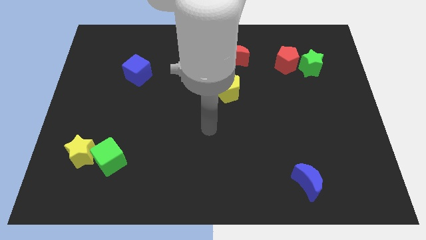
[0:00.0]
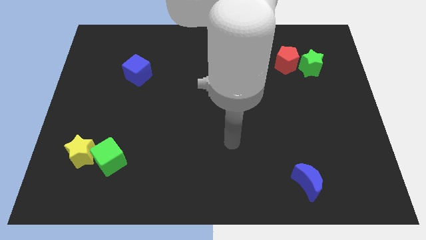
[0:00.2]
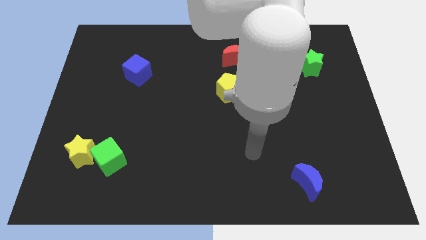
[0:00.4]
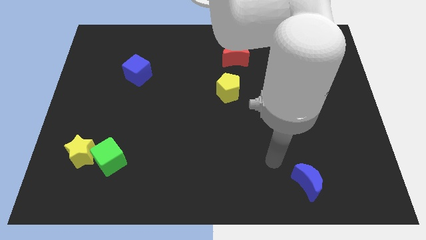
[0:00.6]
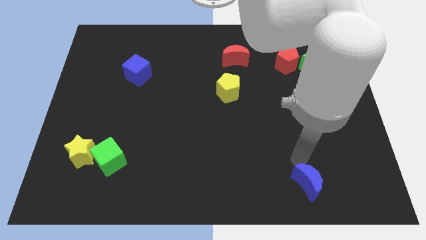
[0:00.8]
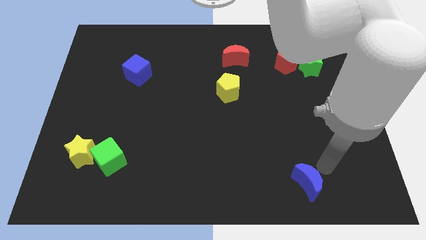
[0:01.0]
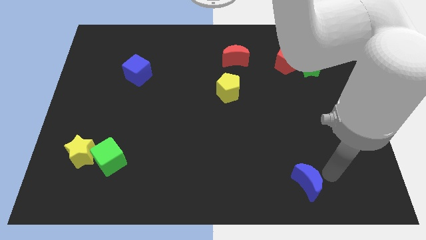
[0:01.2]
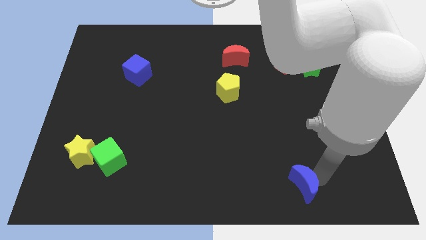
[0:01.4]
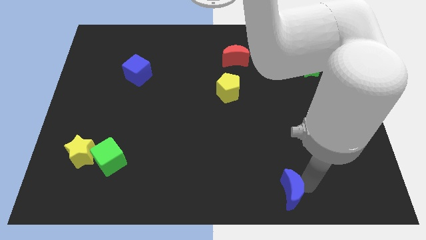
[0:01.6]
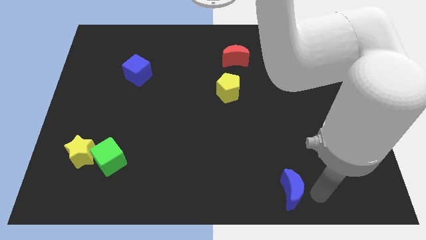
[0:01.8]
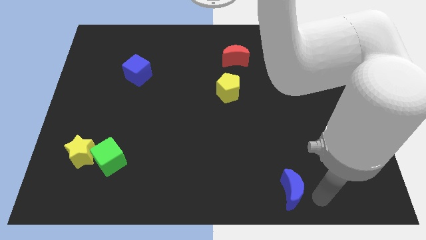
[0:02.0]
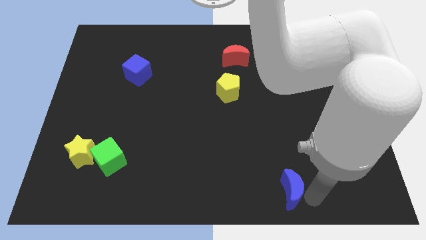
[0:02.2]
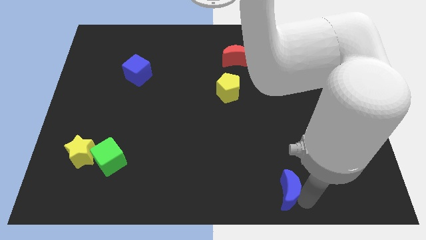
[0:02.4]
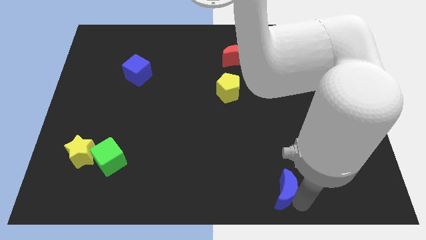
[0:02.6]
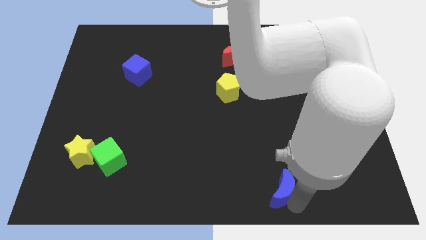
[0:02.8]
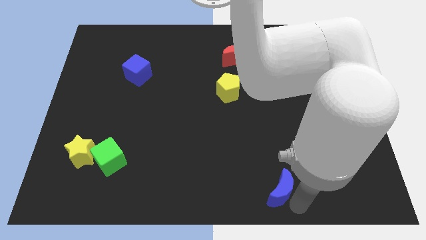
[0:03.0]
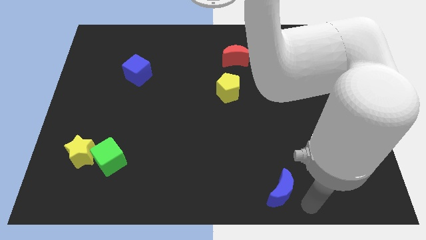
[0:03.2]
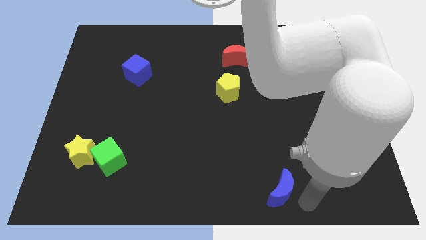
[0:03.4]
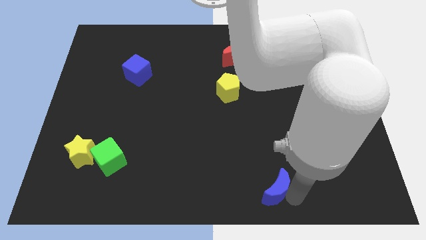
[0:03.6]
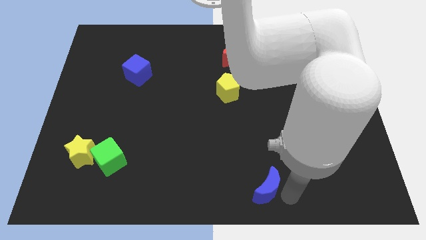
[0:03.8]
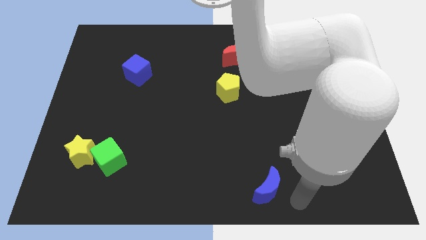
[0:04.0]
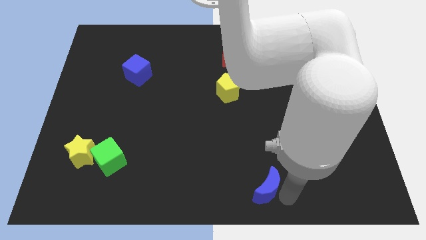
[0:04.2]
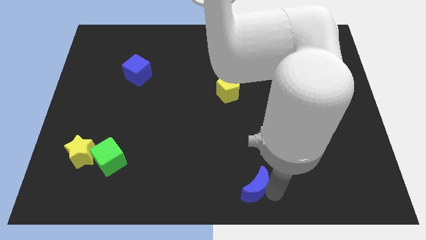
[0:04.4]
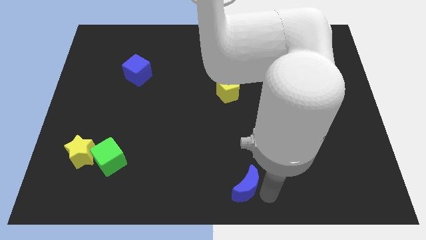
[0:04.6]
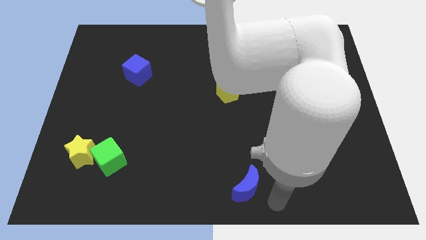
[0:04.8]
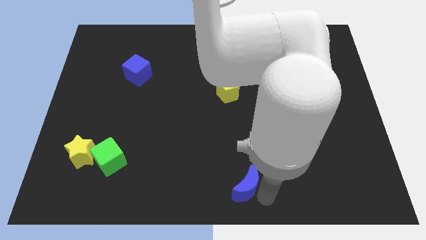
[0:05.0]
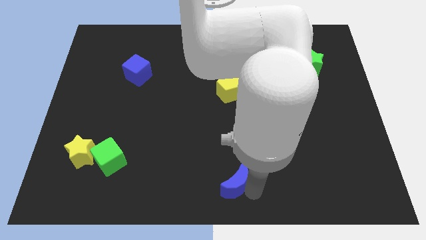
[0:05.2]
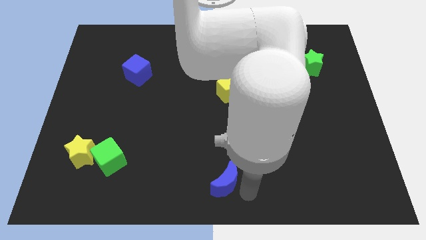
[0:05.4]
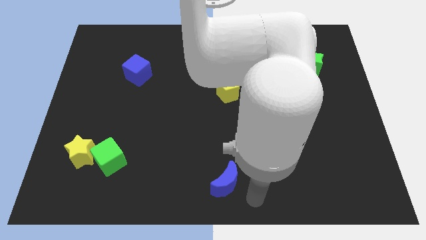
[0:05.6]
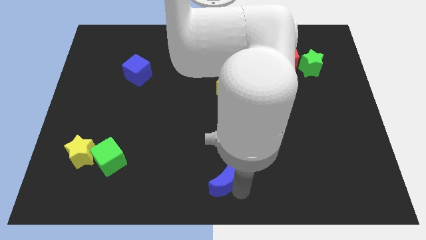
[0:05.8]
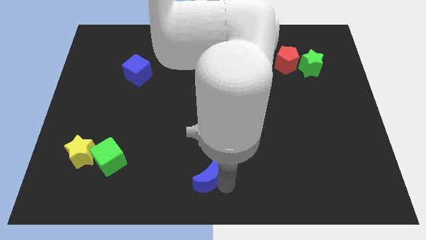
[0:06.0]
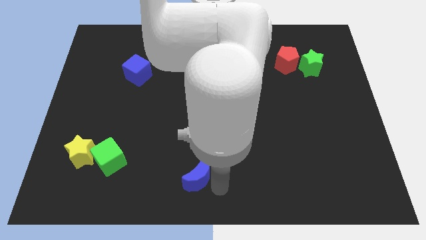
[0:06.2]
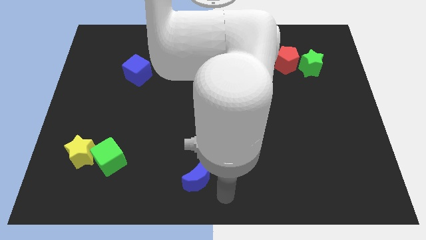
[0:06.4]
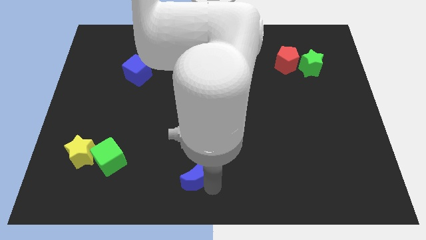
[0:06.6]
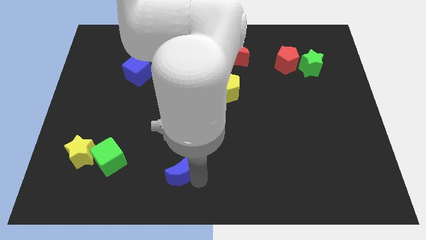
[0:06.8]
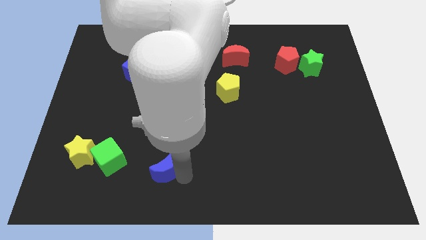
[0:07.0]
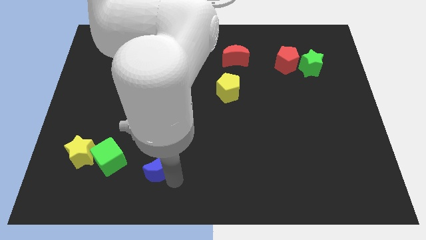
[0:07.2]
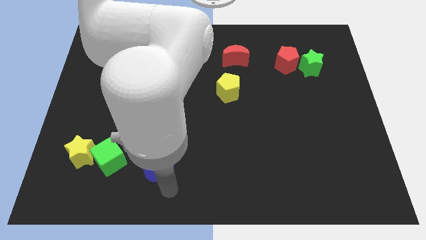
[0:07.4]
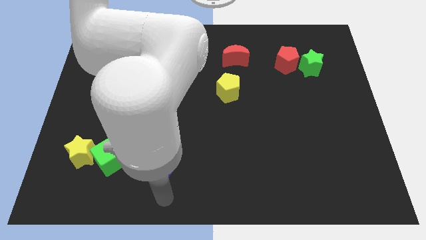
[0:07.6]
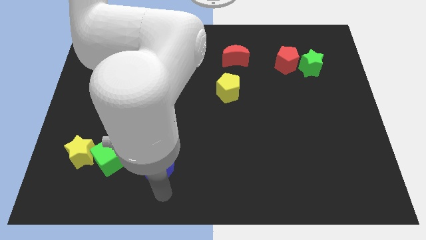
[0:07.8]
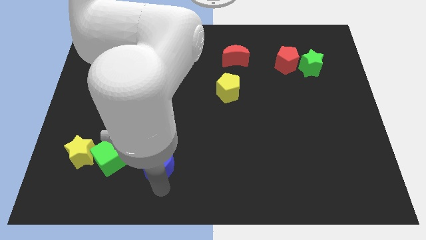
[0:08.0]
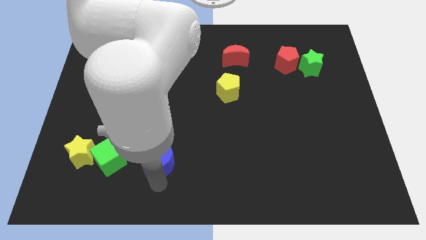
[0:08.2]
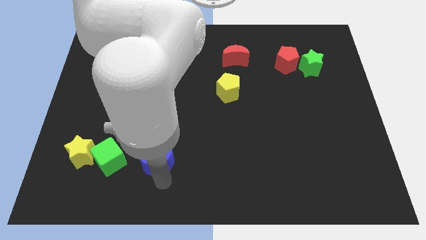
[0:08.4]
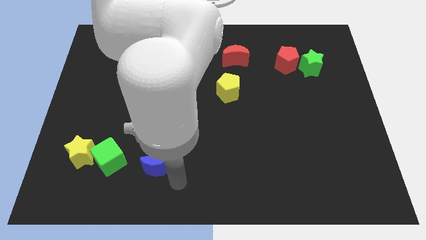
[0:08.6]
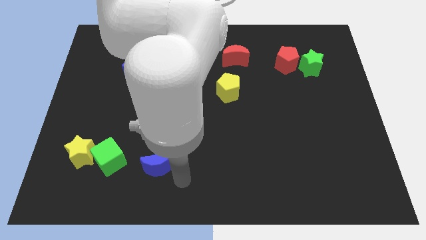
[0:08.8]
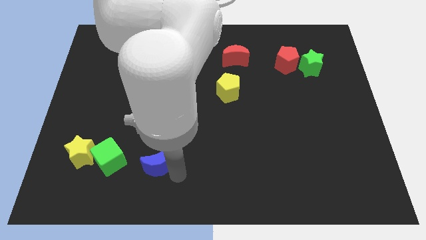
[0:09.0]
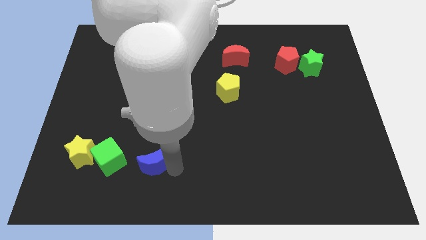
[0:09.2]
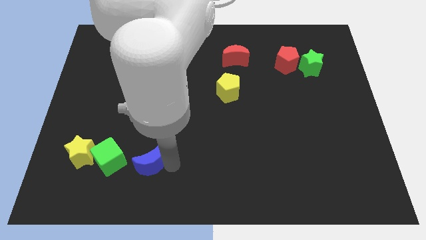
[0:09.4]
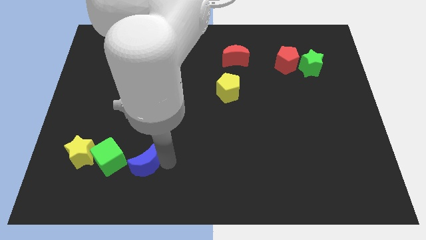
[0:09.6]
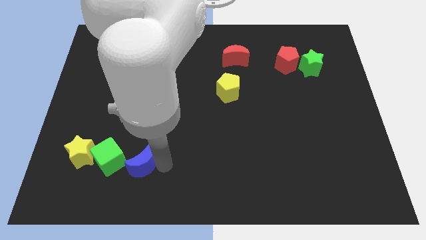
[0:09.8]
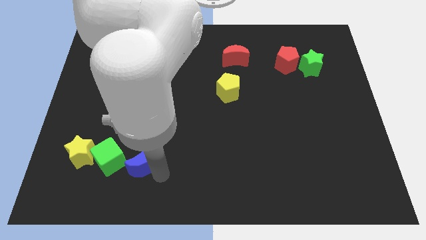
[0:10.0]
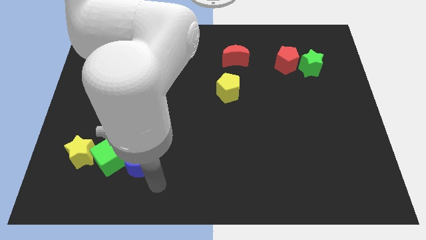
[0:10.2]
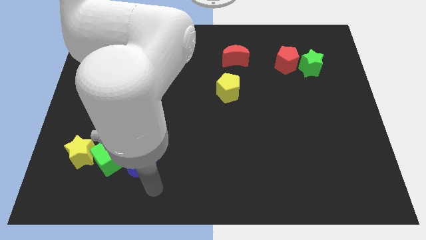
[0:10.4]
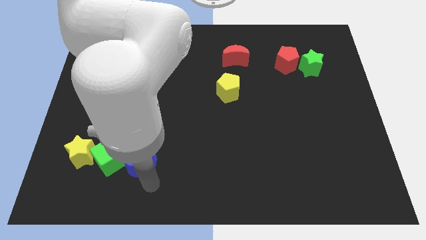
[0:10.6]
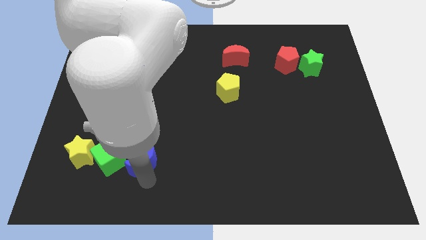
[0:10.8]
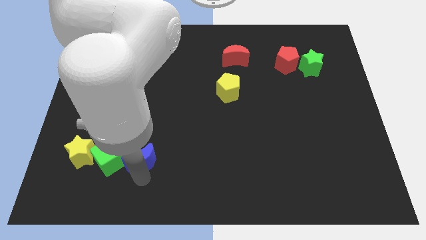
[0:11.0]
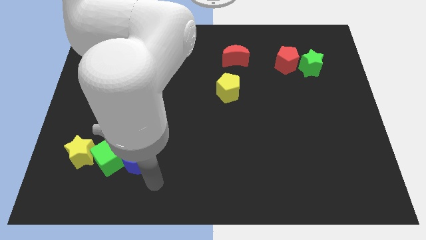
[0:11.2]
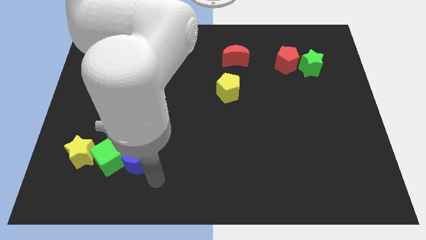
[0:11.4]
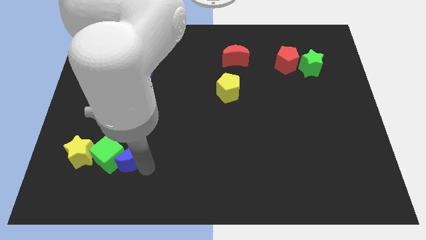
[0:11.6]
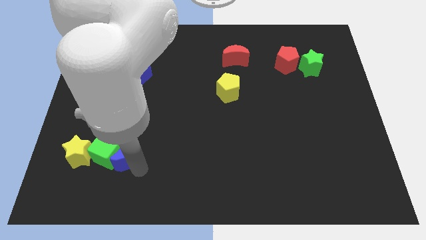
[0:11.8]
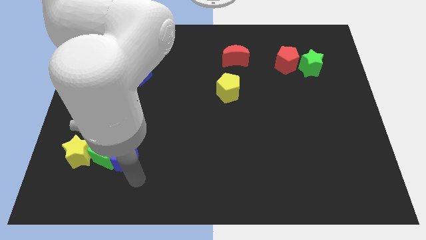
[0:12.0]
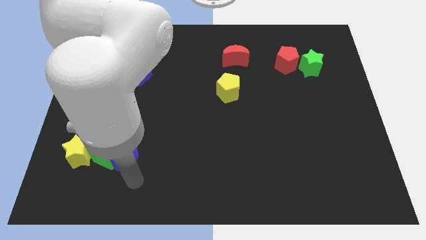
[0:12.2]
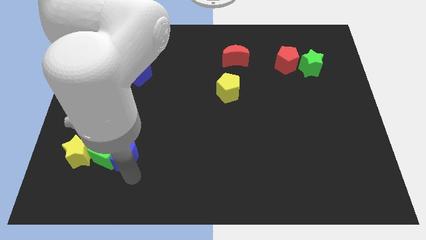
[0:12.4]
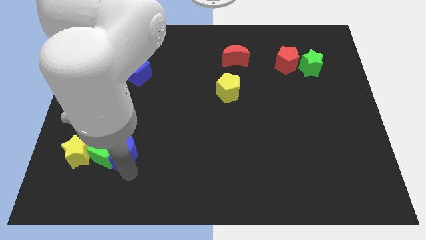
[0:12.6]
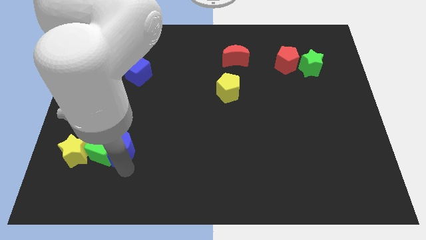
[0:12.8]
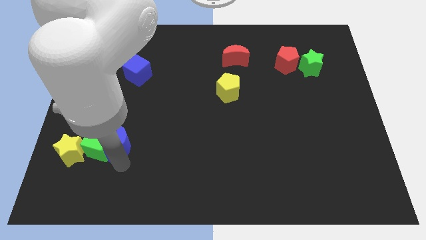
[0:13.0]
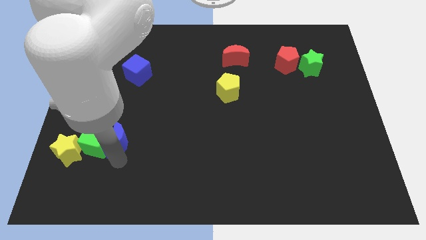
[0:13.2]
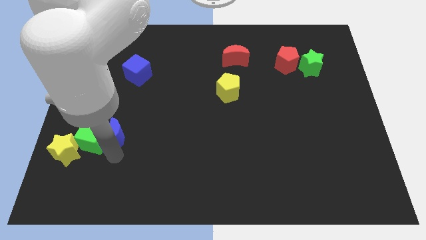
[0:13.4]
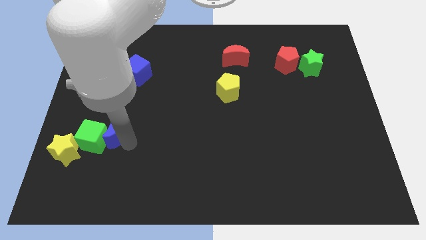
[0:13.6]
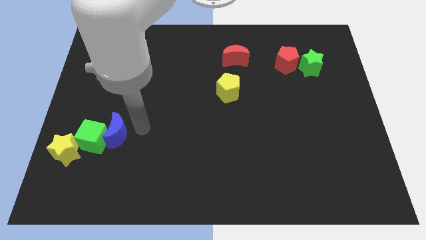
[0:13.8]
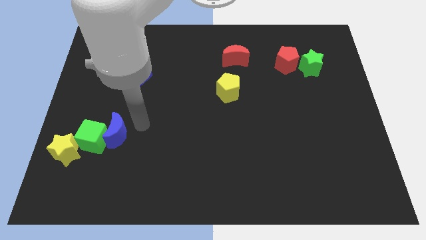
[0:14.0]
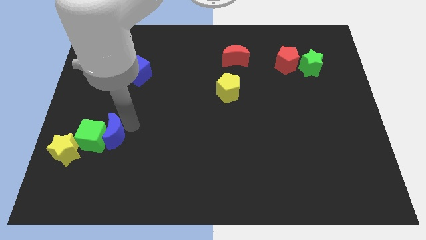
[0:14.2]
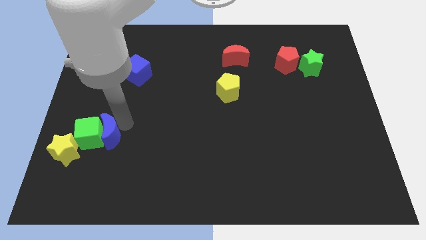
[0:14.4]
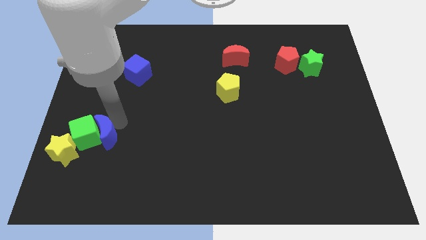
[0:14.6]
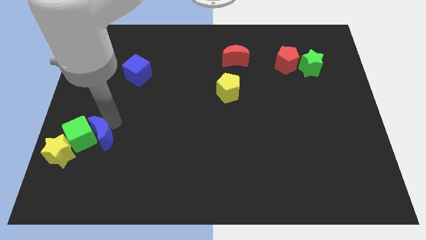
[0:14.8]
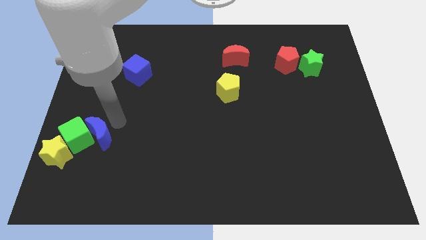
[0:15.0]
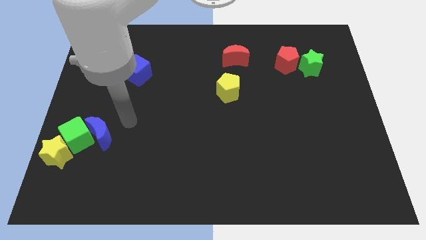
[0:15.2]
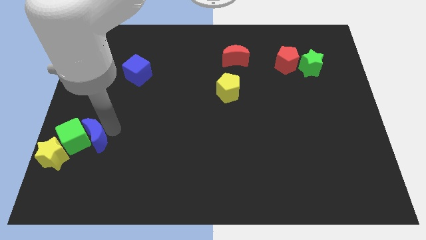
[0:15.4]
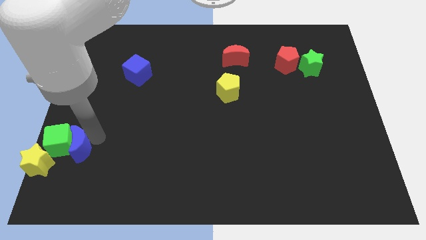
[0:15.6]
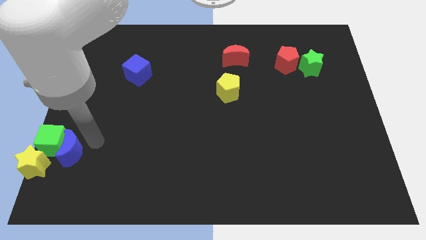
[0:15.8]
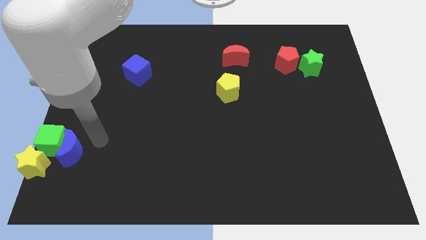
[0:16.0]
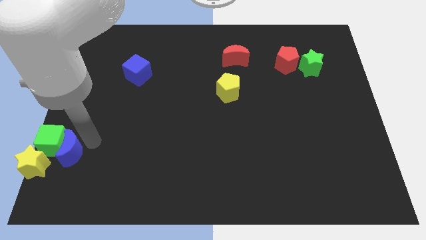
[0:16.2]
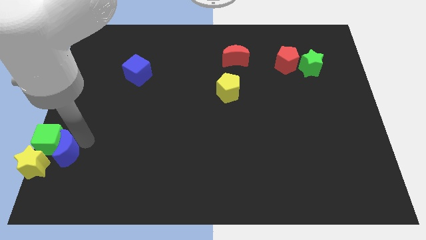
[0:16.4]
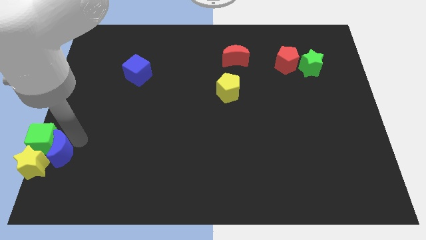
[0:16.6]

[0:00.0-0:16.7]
put the blue moon close to the yellow star
